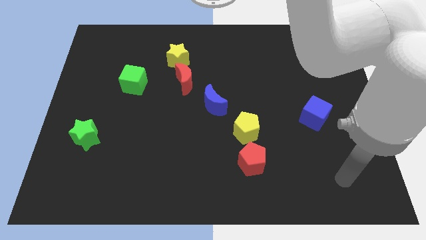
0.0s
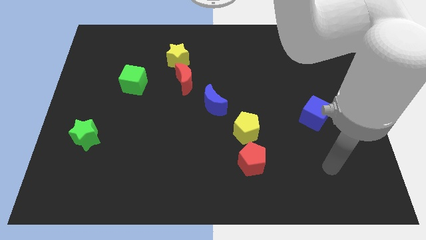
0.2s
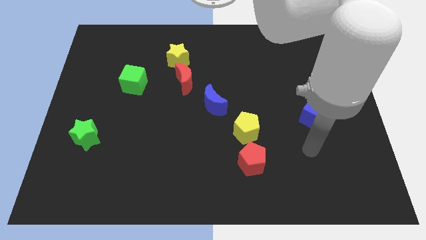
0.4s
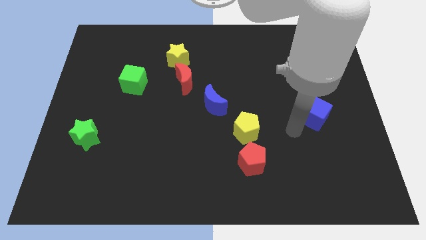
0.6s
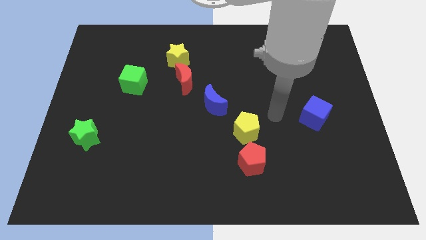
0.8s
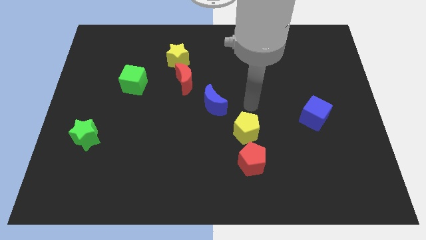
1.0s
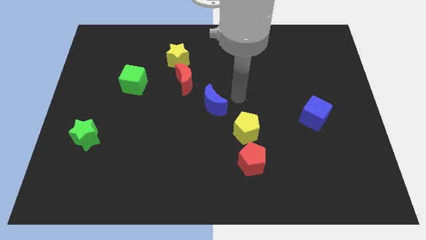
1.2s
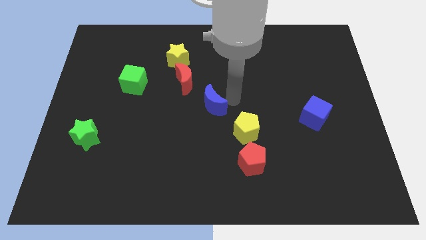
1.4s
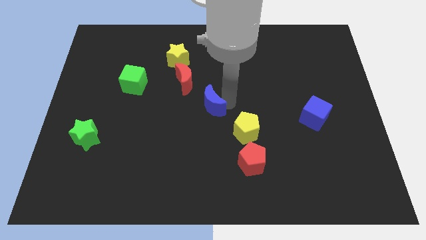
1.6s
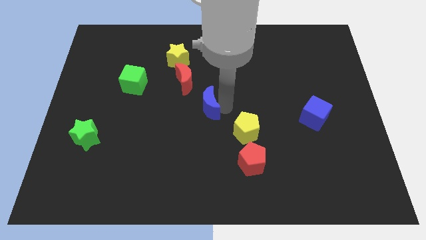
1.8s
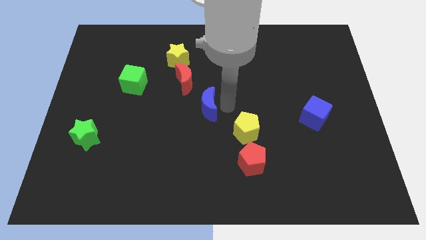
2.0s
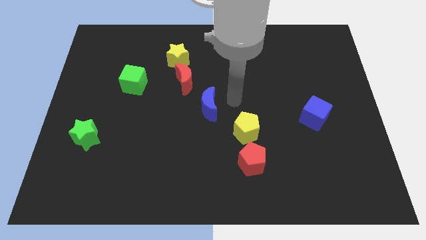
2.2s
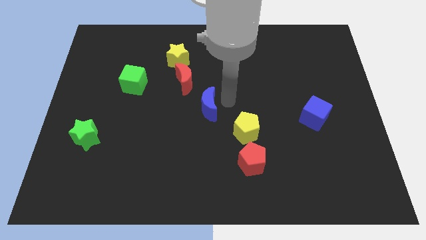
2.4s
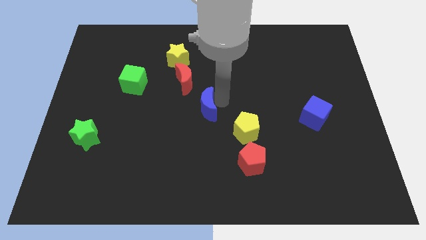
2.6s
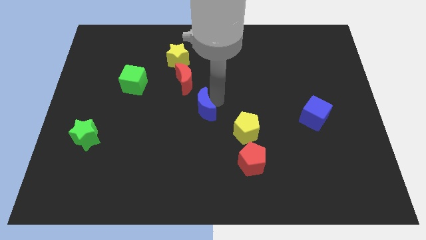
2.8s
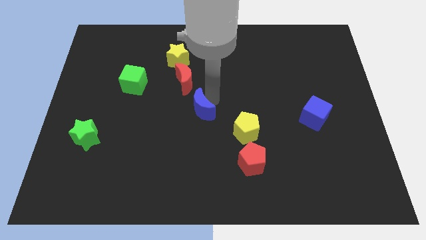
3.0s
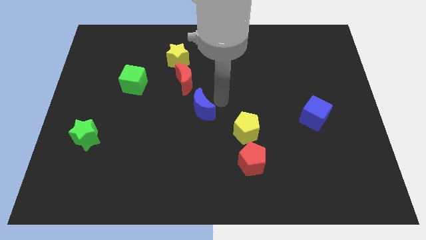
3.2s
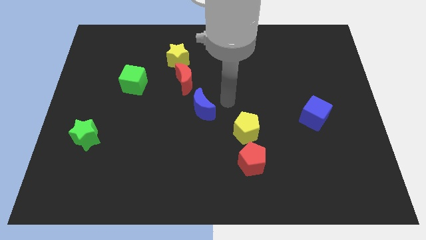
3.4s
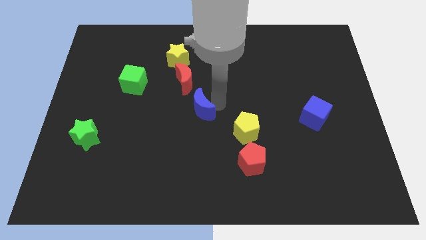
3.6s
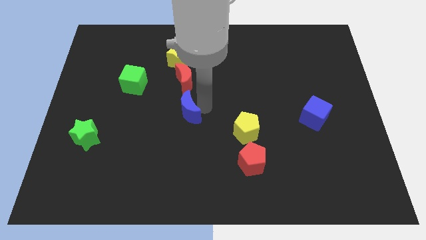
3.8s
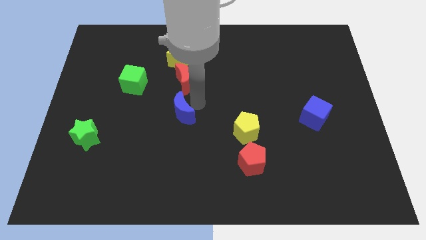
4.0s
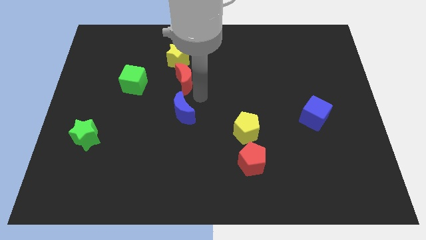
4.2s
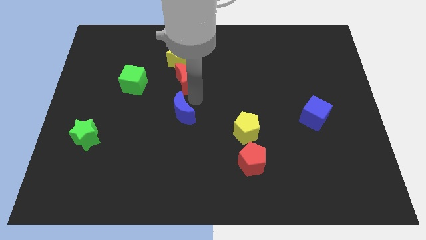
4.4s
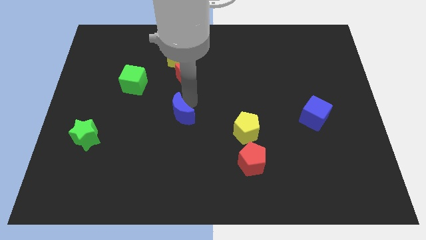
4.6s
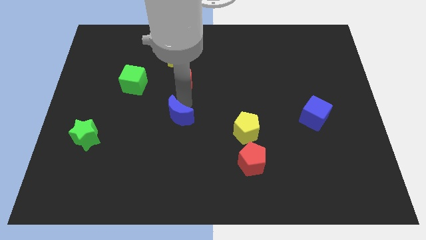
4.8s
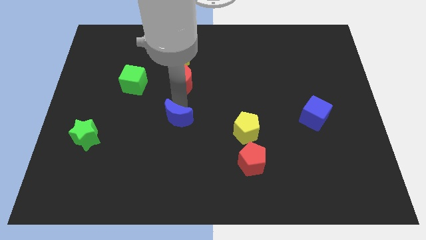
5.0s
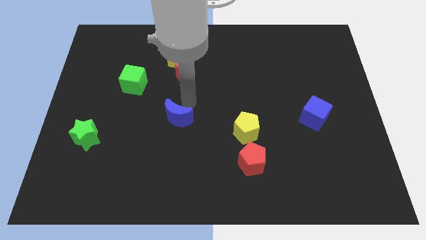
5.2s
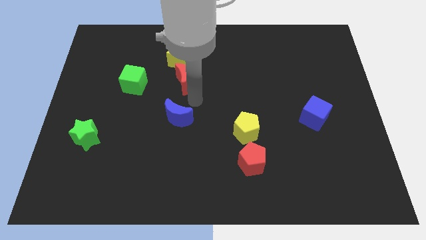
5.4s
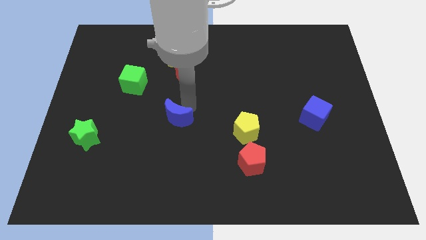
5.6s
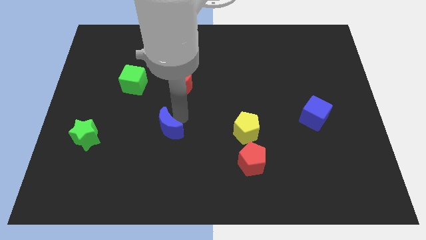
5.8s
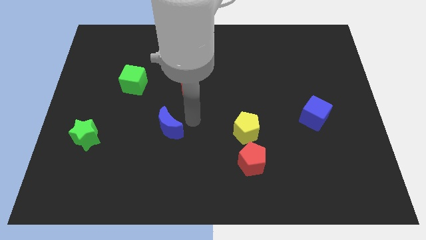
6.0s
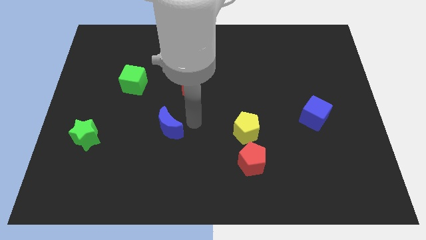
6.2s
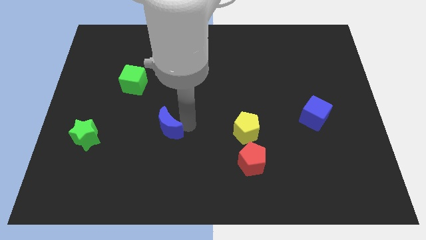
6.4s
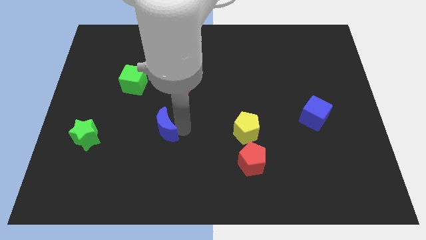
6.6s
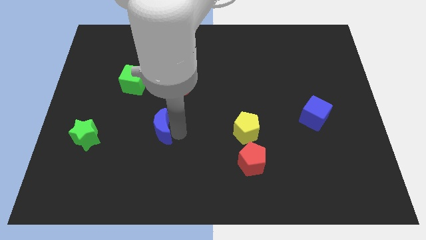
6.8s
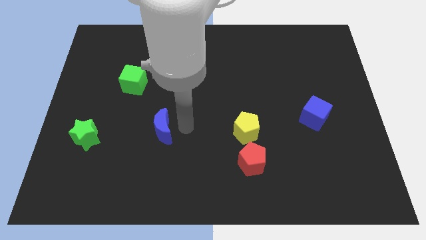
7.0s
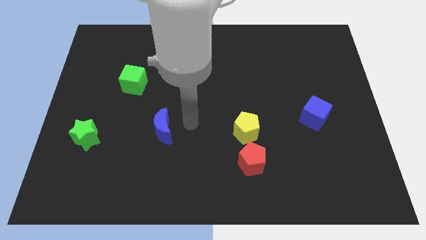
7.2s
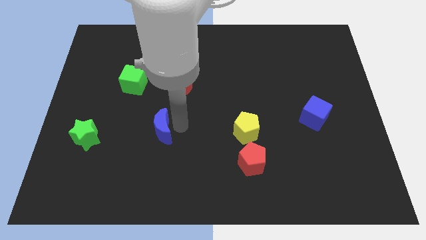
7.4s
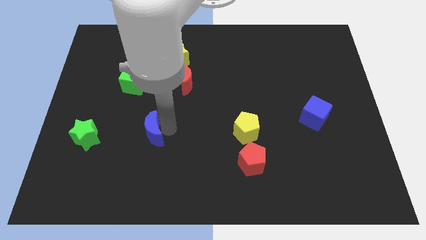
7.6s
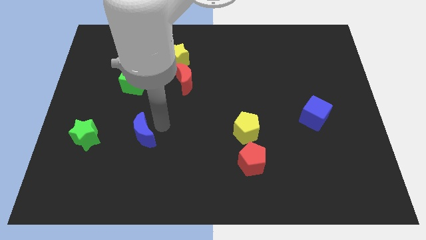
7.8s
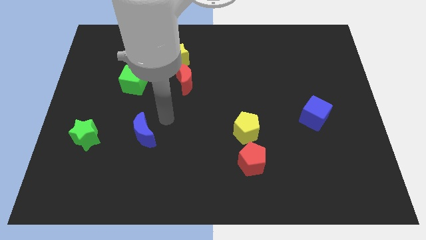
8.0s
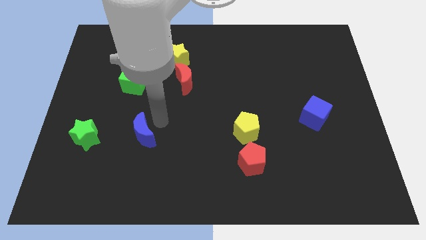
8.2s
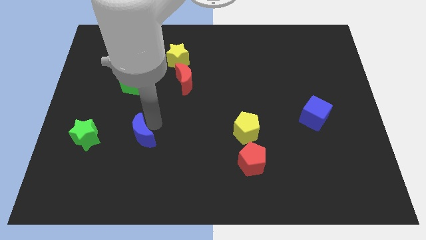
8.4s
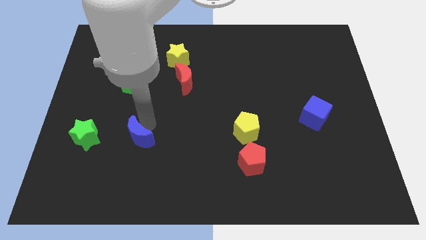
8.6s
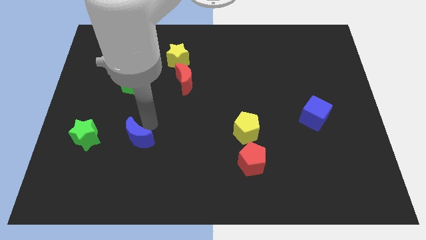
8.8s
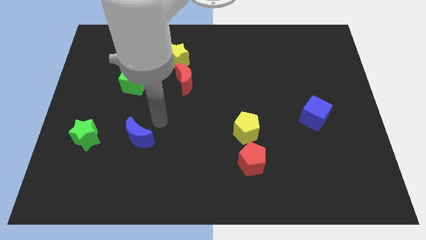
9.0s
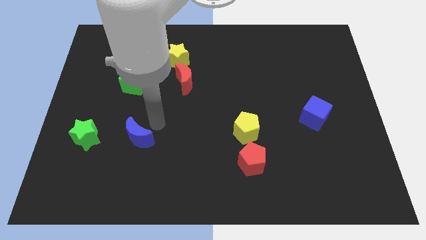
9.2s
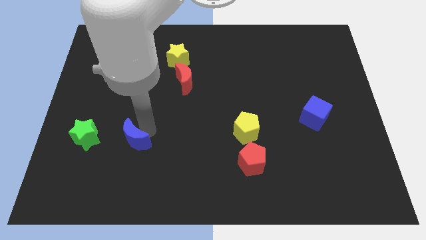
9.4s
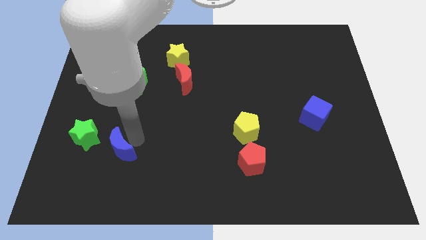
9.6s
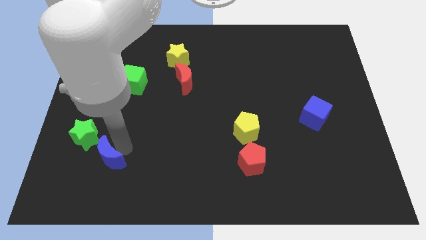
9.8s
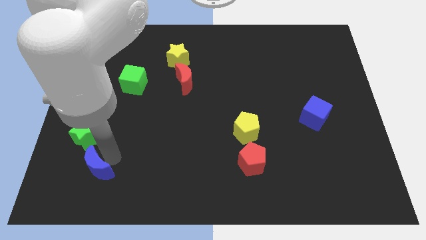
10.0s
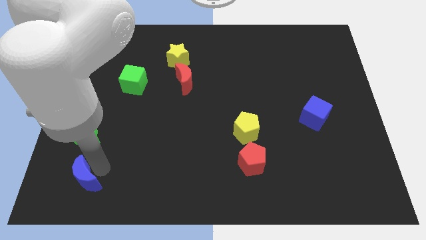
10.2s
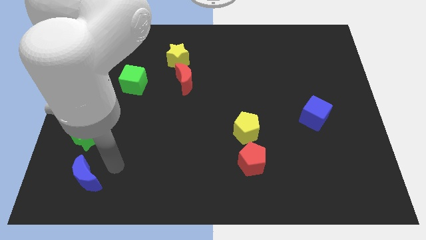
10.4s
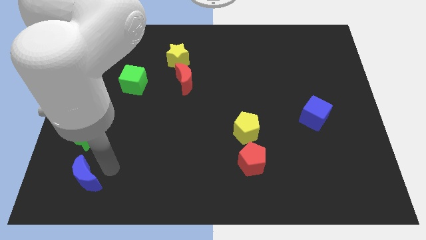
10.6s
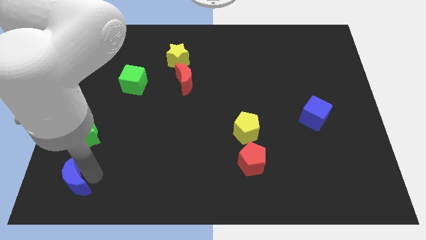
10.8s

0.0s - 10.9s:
slide the blue moon to the bottom left of the board
